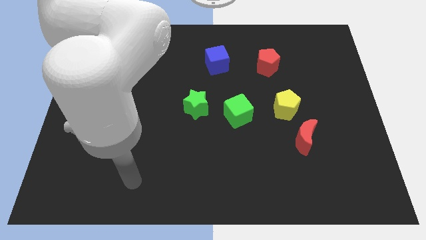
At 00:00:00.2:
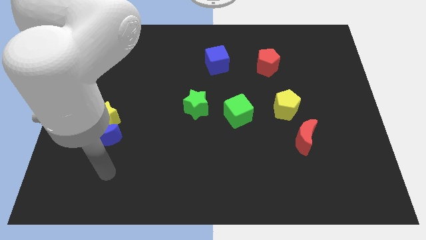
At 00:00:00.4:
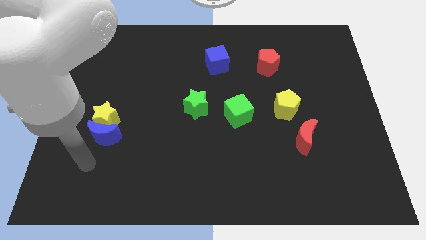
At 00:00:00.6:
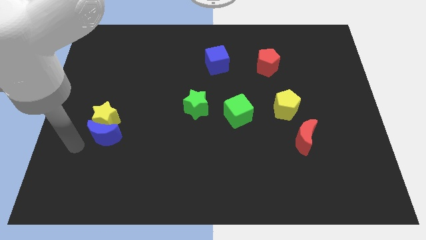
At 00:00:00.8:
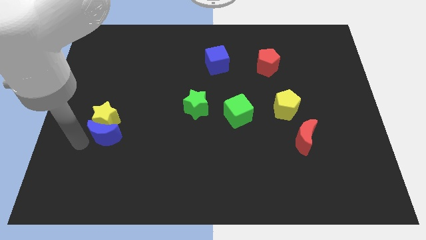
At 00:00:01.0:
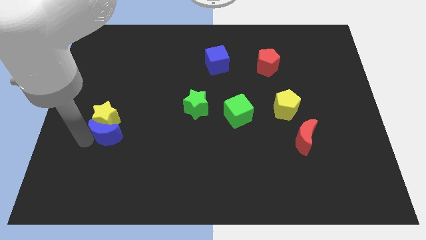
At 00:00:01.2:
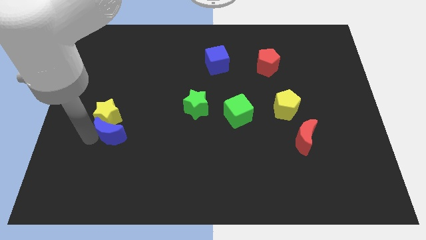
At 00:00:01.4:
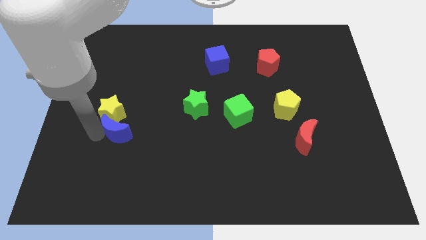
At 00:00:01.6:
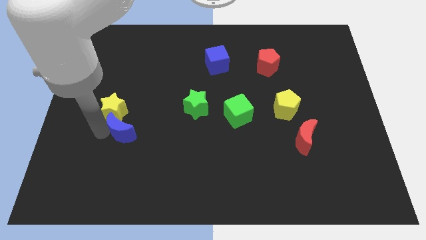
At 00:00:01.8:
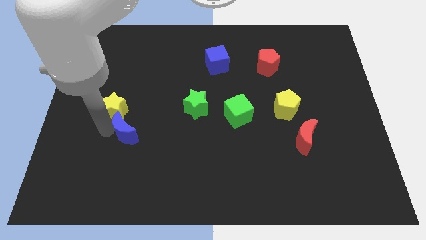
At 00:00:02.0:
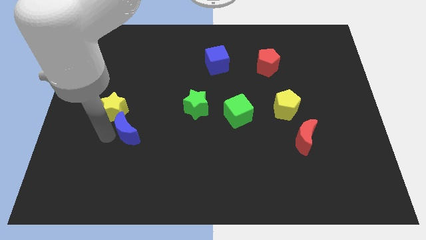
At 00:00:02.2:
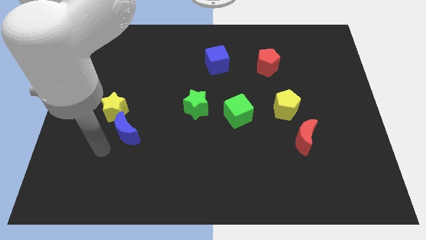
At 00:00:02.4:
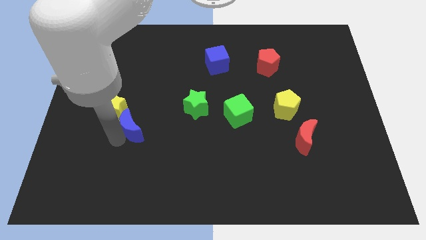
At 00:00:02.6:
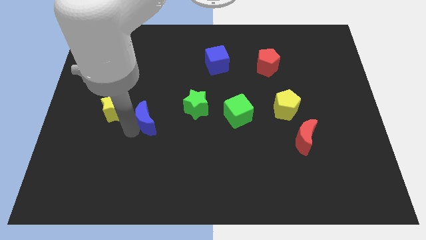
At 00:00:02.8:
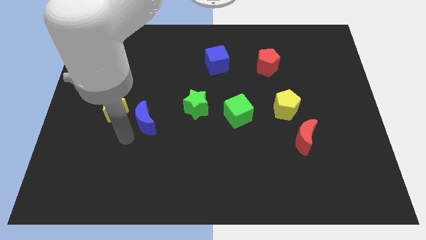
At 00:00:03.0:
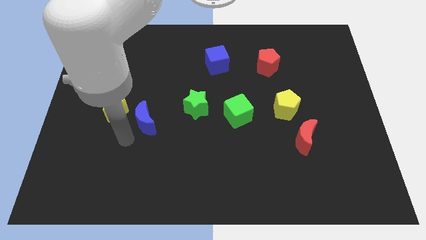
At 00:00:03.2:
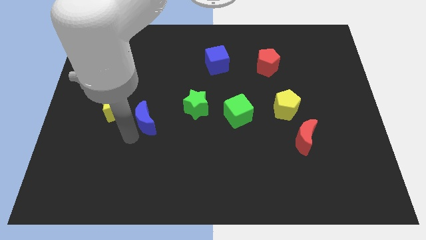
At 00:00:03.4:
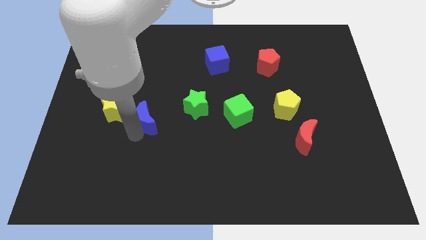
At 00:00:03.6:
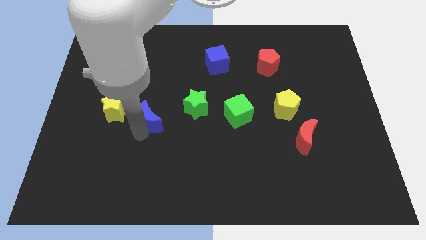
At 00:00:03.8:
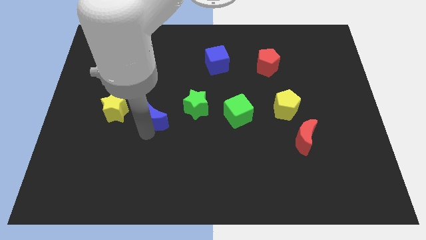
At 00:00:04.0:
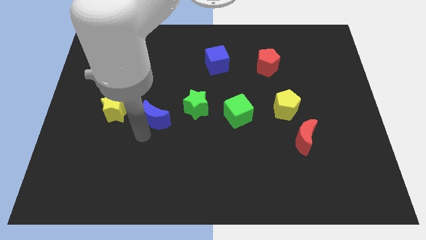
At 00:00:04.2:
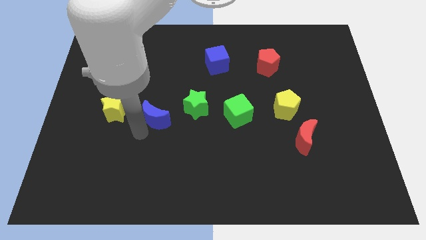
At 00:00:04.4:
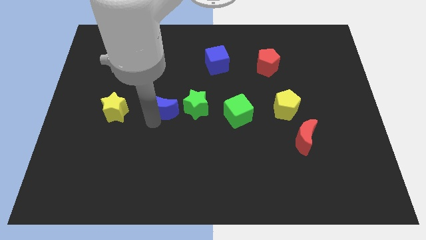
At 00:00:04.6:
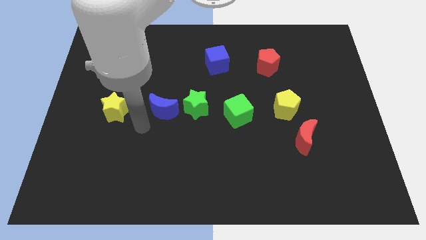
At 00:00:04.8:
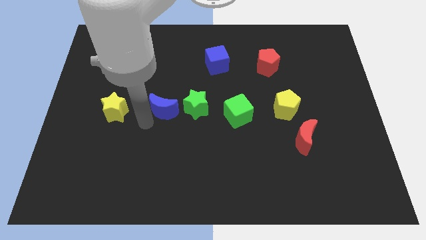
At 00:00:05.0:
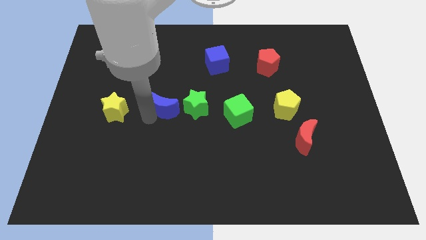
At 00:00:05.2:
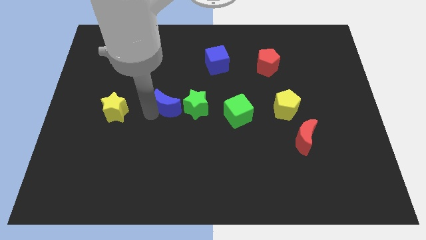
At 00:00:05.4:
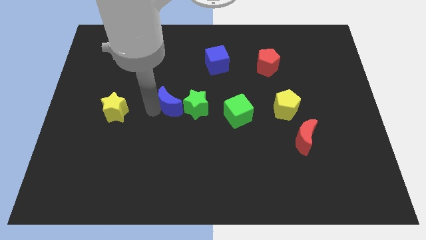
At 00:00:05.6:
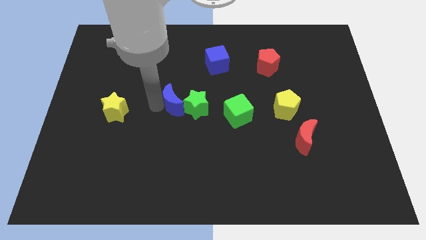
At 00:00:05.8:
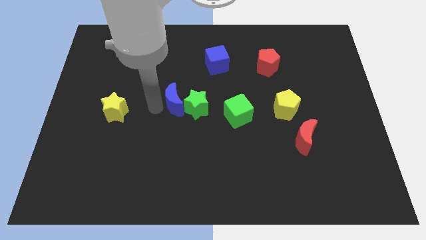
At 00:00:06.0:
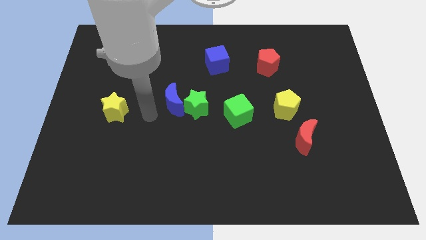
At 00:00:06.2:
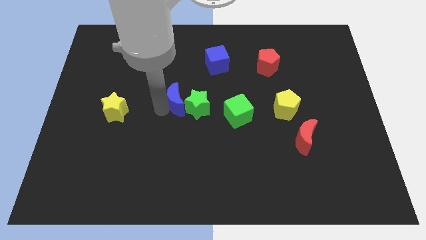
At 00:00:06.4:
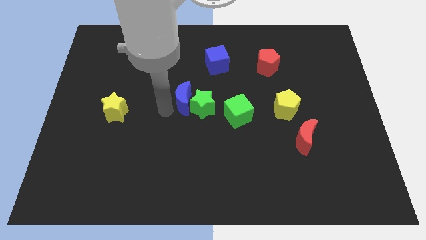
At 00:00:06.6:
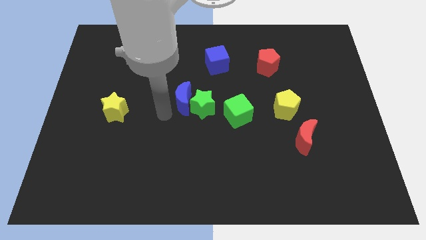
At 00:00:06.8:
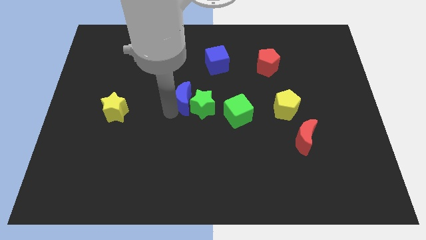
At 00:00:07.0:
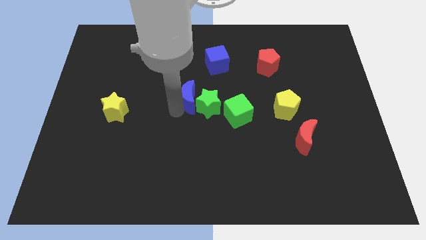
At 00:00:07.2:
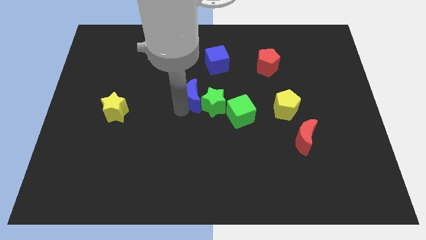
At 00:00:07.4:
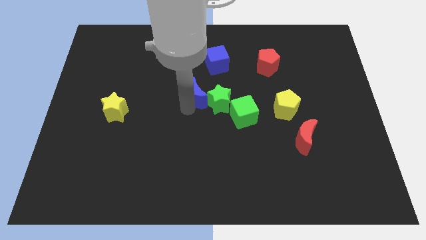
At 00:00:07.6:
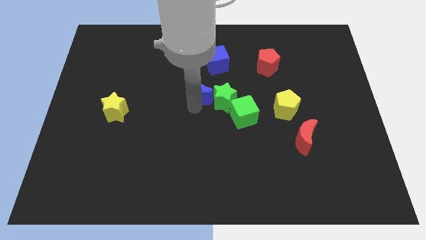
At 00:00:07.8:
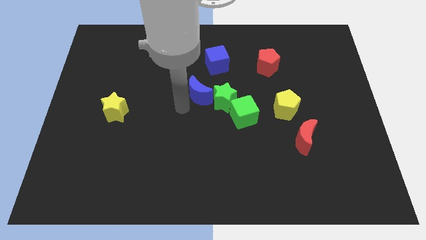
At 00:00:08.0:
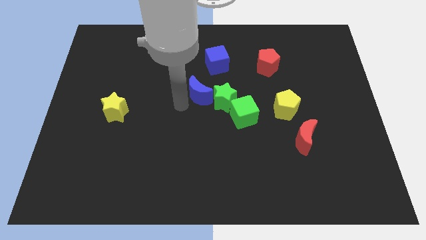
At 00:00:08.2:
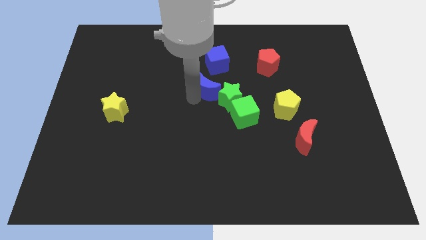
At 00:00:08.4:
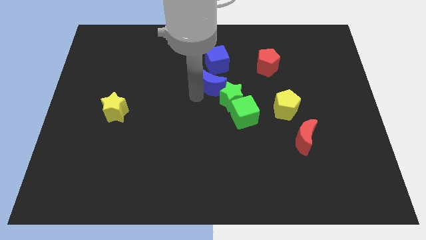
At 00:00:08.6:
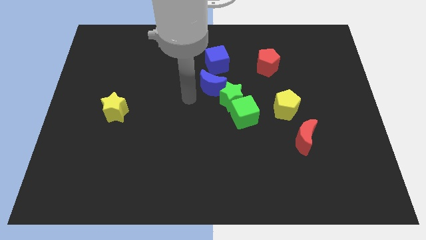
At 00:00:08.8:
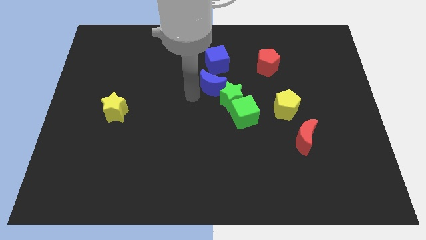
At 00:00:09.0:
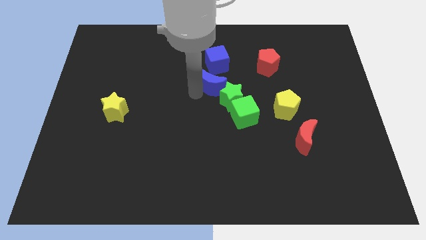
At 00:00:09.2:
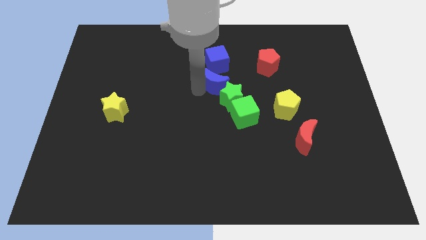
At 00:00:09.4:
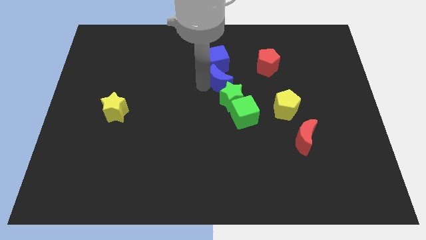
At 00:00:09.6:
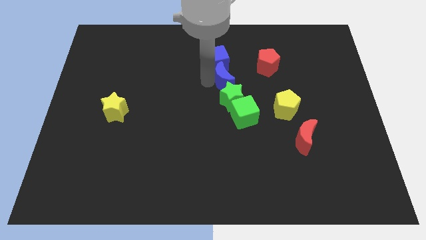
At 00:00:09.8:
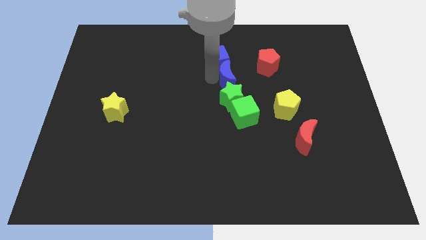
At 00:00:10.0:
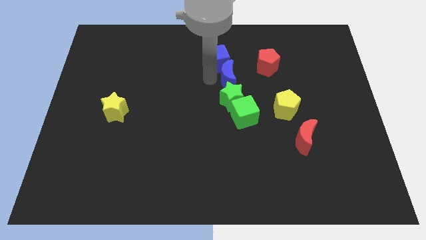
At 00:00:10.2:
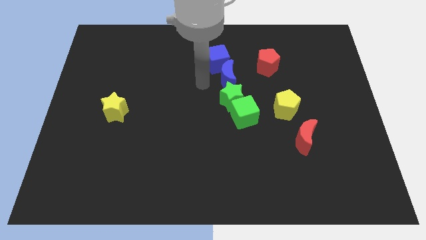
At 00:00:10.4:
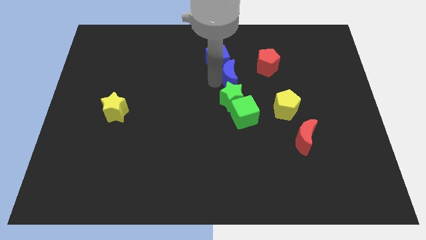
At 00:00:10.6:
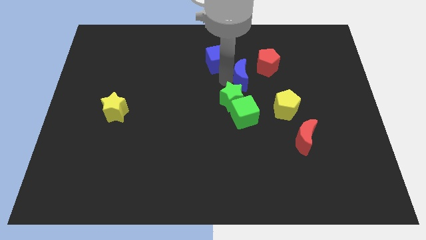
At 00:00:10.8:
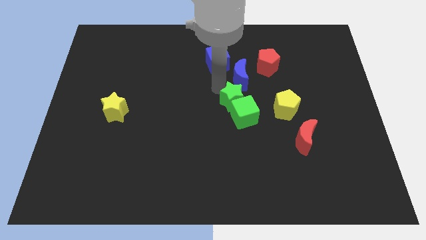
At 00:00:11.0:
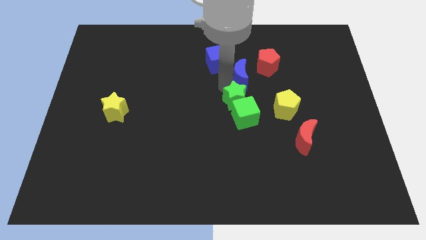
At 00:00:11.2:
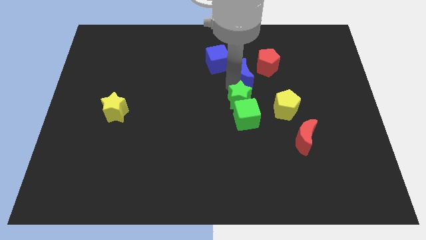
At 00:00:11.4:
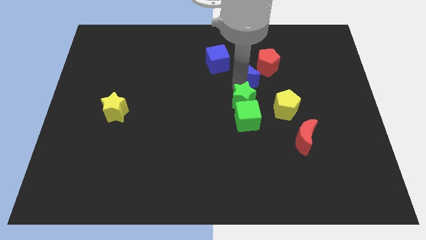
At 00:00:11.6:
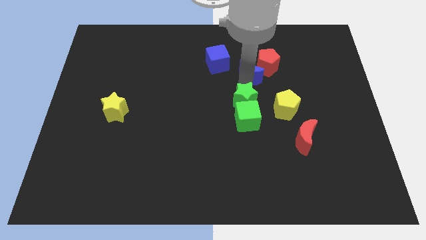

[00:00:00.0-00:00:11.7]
push the blue moon close to the red pentagon

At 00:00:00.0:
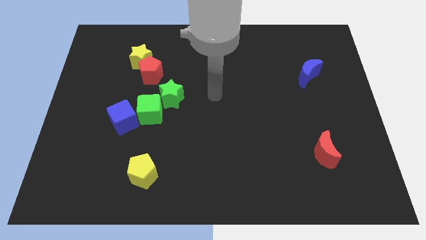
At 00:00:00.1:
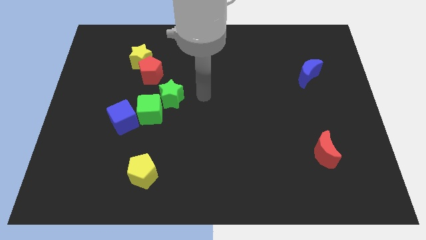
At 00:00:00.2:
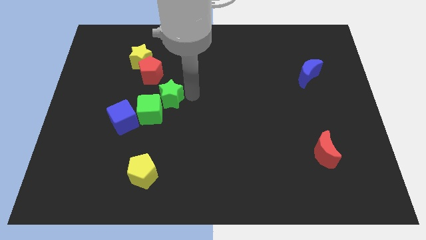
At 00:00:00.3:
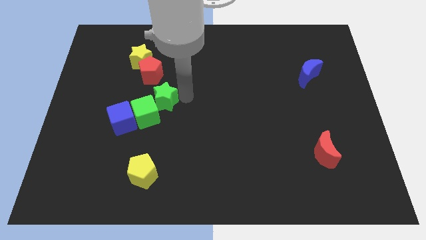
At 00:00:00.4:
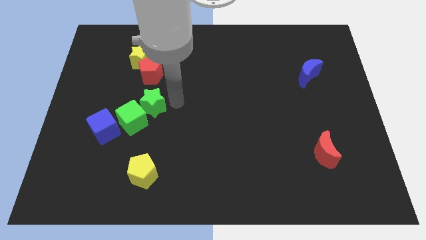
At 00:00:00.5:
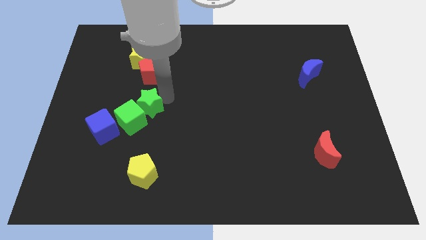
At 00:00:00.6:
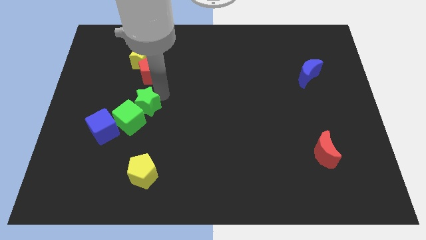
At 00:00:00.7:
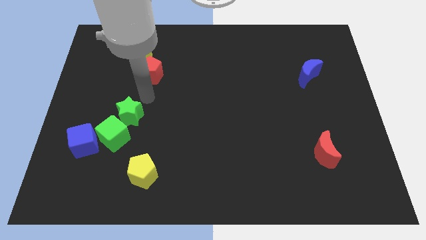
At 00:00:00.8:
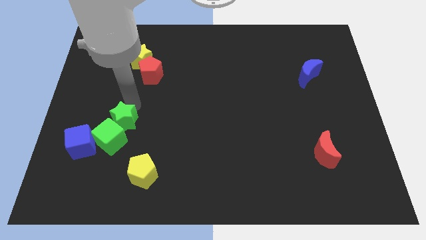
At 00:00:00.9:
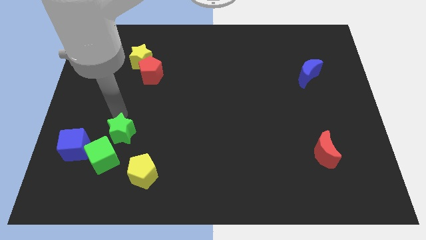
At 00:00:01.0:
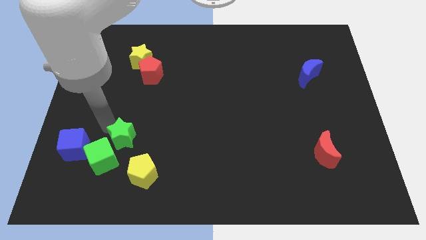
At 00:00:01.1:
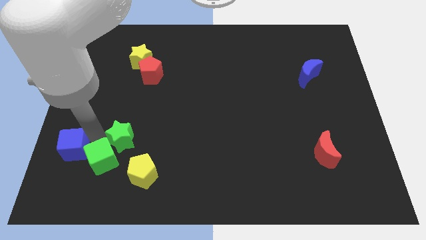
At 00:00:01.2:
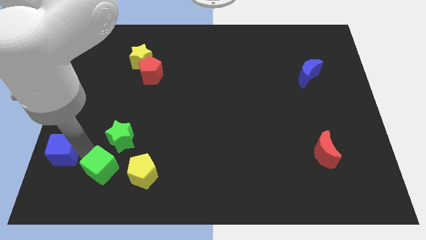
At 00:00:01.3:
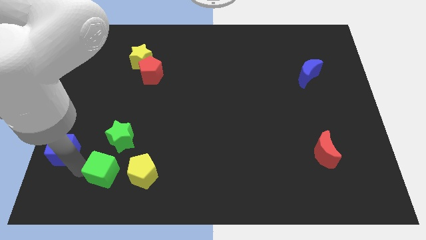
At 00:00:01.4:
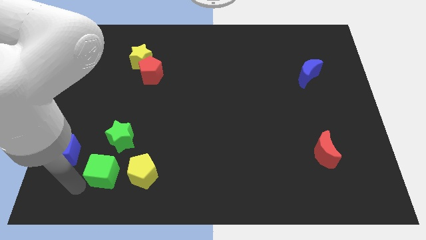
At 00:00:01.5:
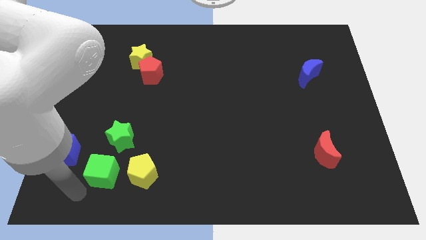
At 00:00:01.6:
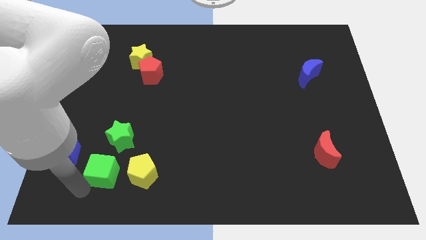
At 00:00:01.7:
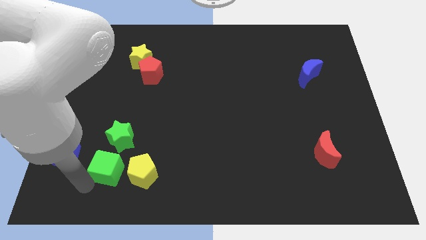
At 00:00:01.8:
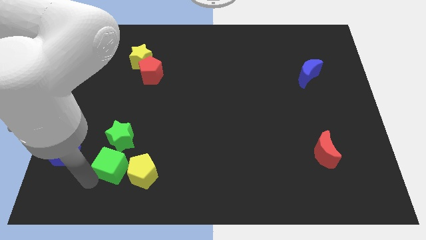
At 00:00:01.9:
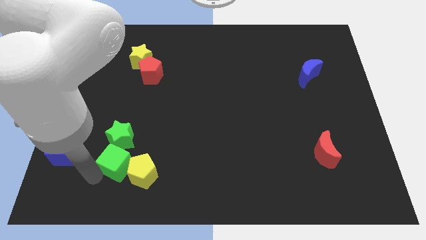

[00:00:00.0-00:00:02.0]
put the green cube towards the yellow pentagon
